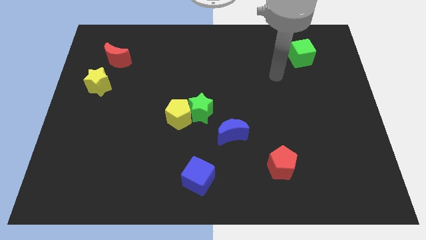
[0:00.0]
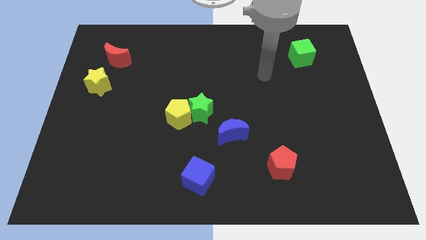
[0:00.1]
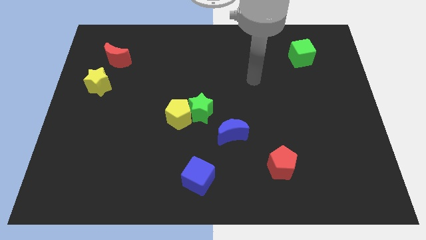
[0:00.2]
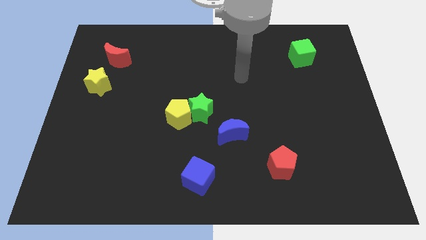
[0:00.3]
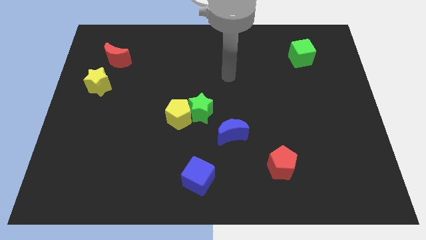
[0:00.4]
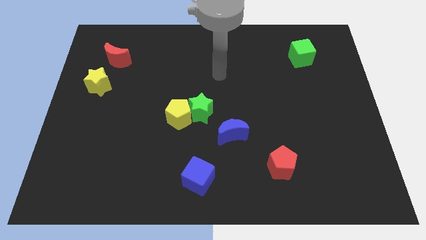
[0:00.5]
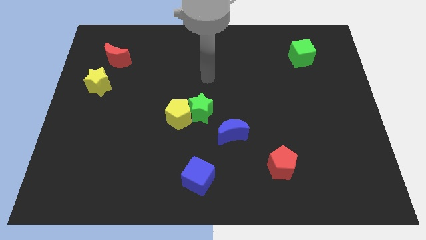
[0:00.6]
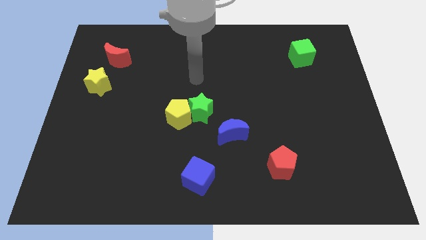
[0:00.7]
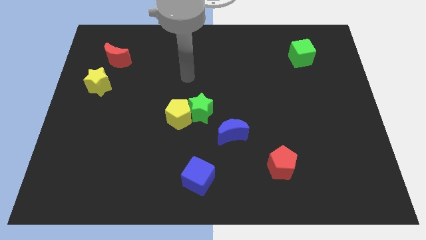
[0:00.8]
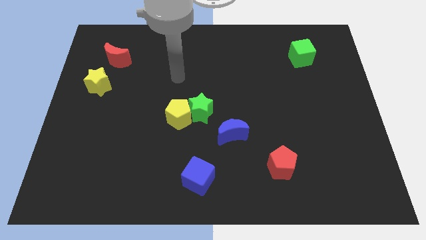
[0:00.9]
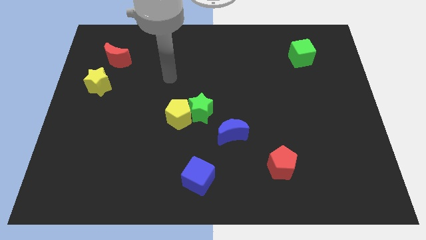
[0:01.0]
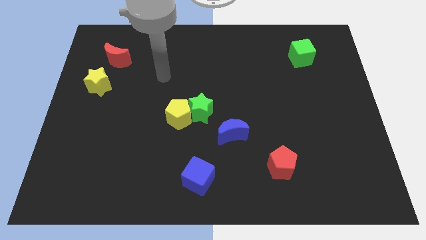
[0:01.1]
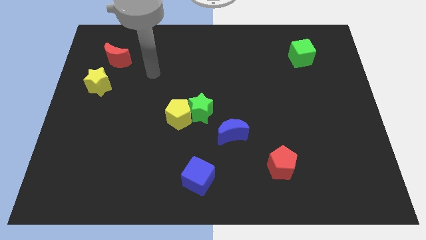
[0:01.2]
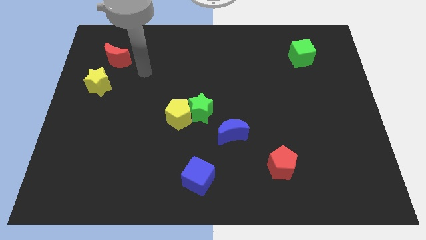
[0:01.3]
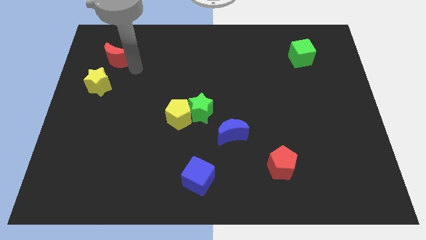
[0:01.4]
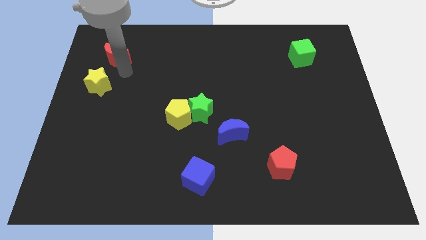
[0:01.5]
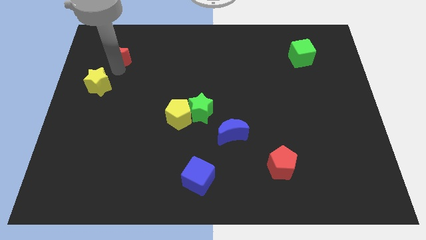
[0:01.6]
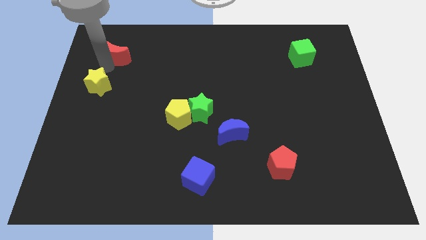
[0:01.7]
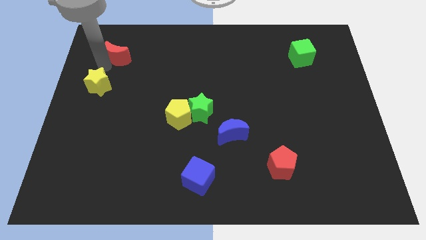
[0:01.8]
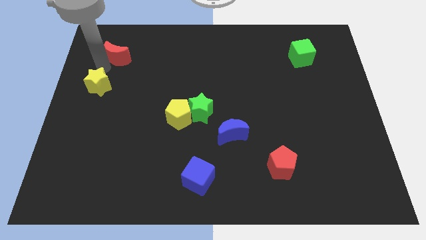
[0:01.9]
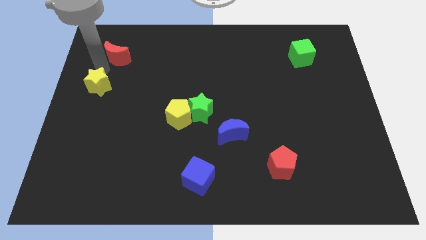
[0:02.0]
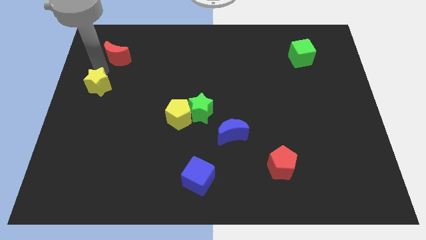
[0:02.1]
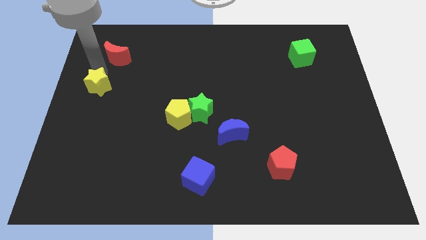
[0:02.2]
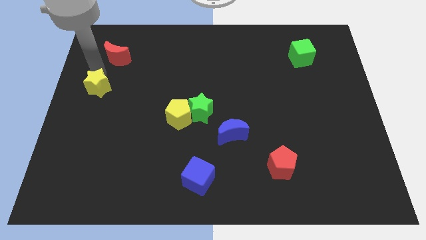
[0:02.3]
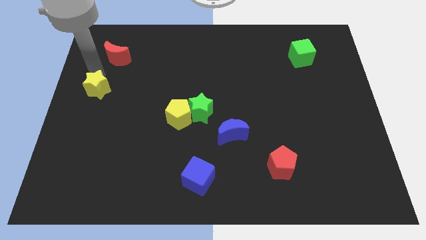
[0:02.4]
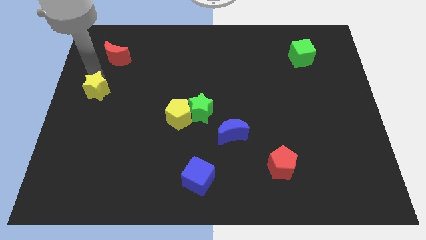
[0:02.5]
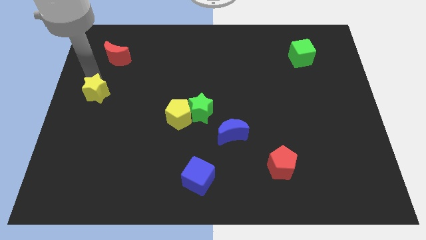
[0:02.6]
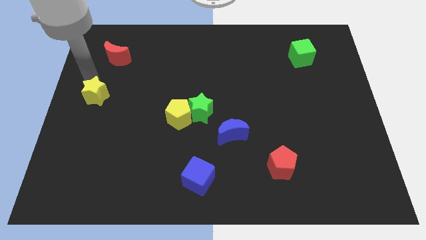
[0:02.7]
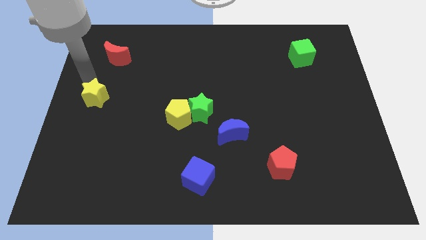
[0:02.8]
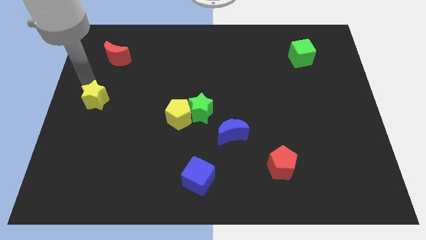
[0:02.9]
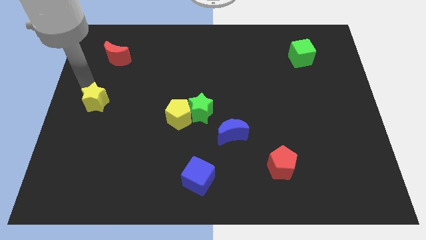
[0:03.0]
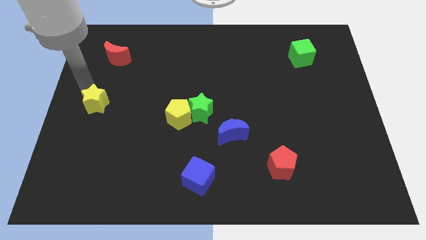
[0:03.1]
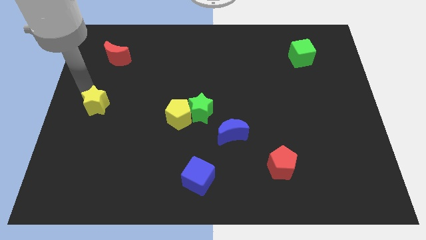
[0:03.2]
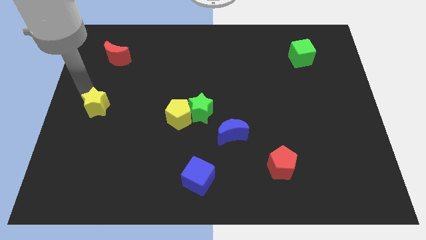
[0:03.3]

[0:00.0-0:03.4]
move the yellow star a bit downwards

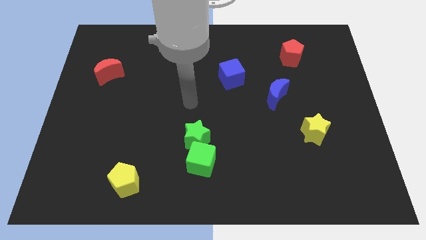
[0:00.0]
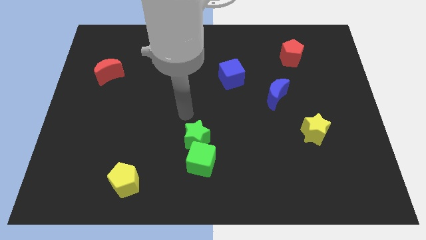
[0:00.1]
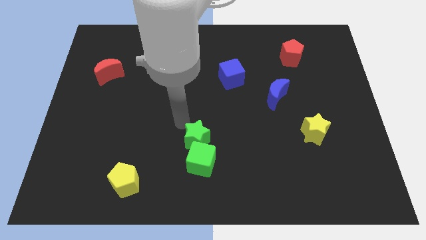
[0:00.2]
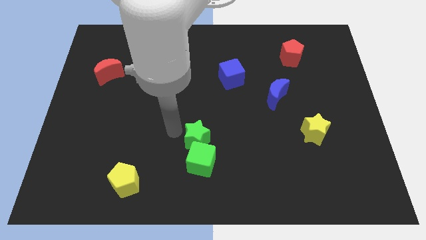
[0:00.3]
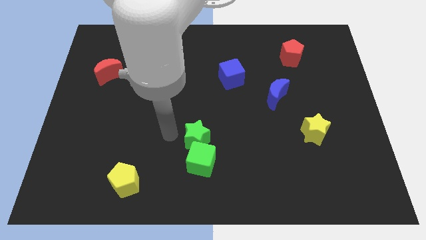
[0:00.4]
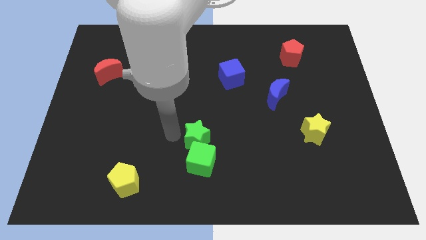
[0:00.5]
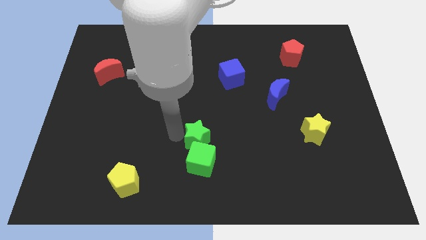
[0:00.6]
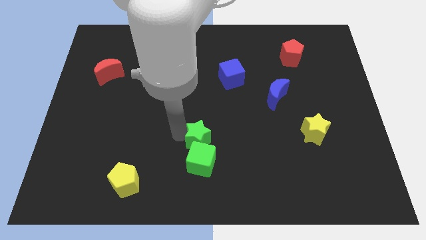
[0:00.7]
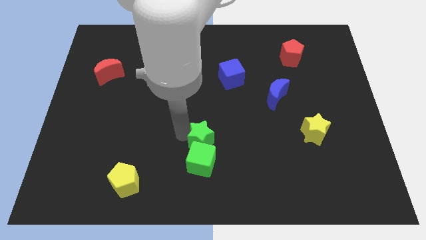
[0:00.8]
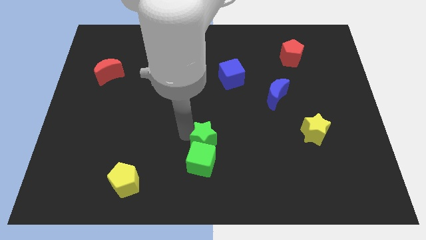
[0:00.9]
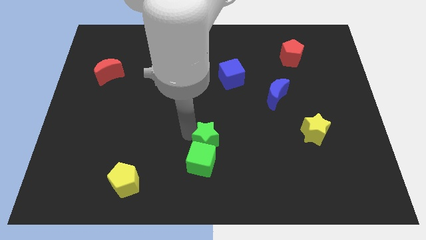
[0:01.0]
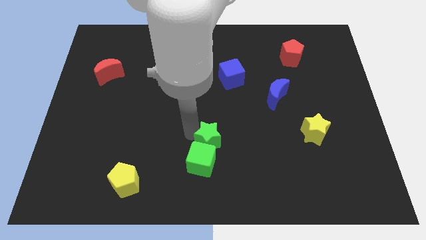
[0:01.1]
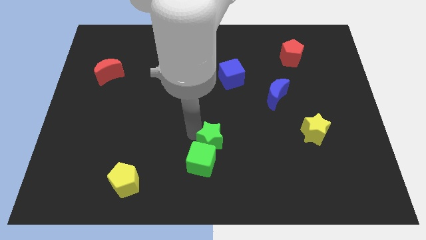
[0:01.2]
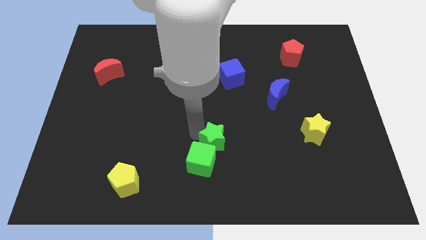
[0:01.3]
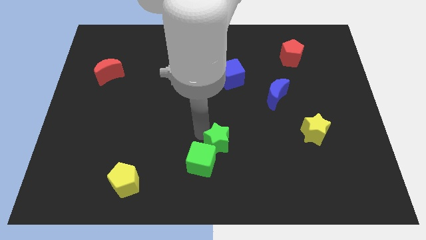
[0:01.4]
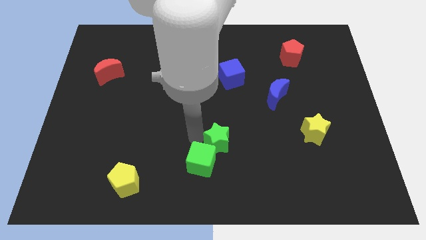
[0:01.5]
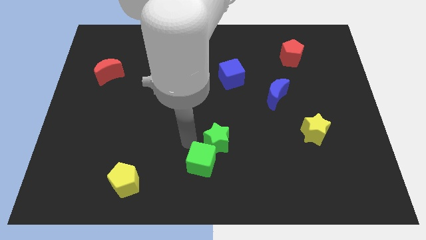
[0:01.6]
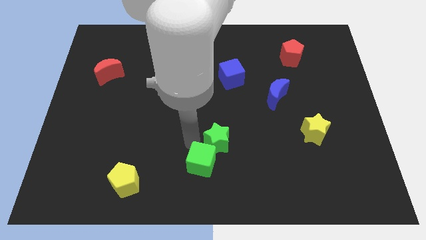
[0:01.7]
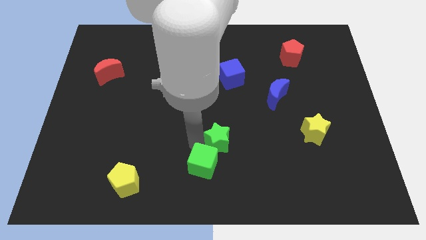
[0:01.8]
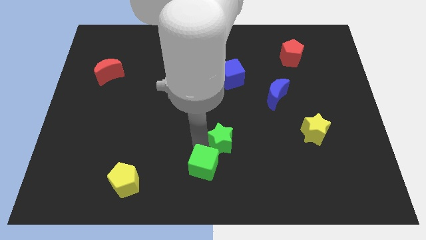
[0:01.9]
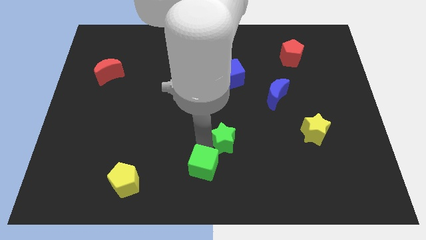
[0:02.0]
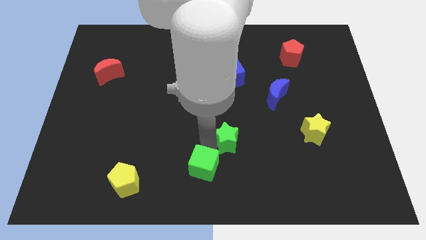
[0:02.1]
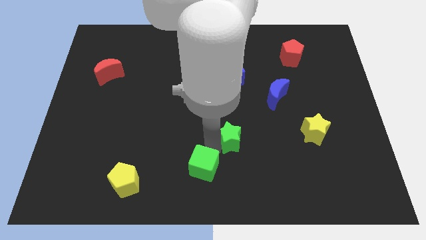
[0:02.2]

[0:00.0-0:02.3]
slightly push the green star right

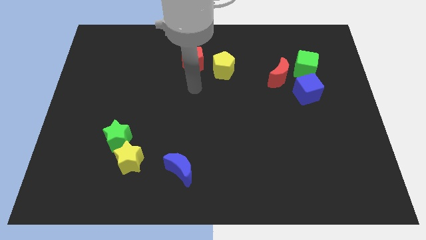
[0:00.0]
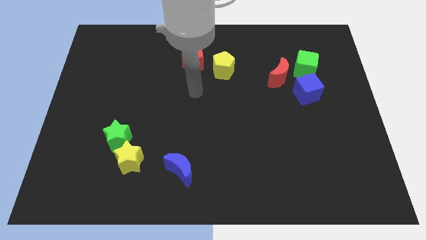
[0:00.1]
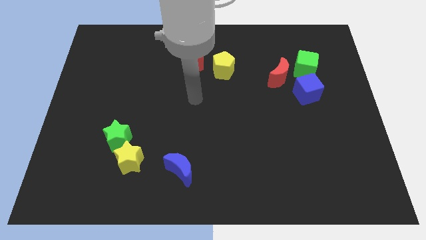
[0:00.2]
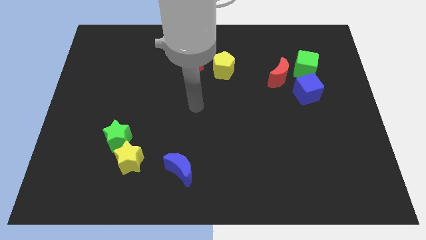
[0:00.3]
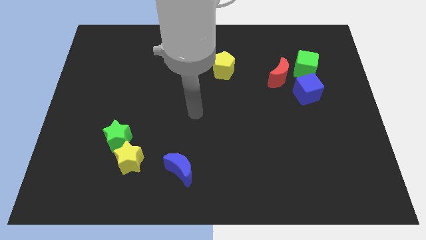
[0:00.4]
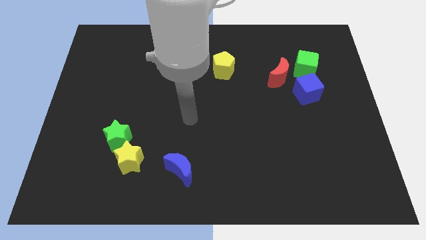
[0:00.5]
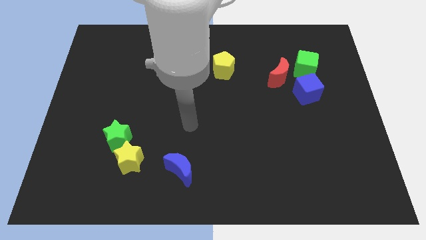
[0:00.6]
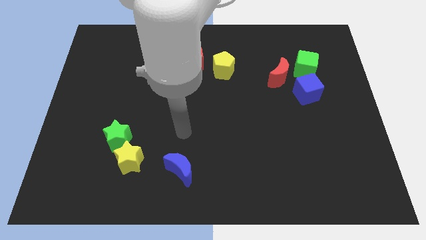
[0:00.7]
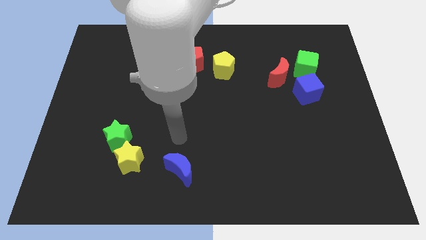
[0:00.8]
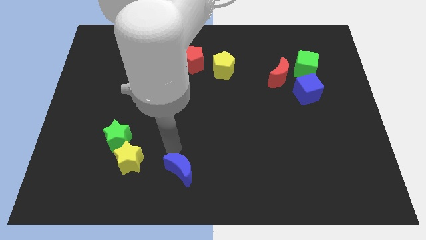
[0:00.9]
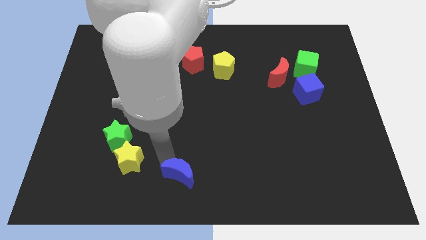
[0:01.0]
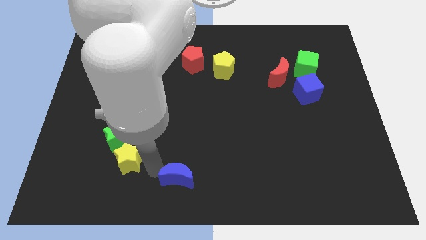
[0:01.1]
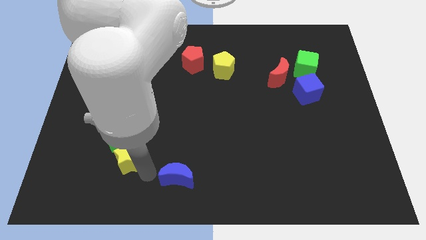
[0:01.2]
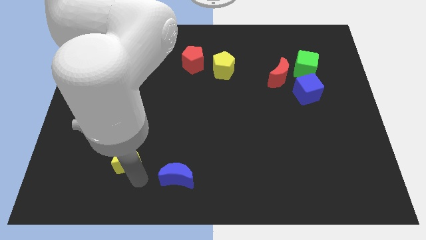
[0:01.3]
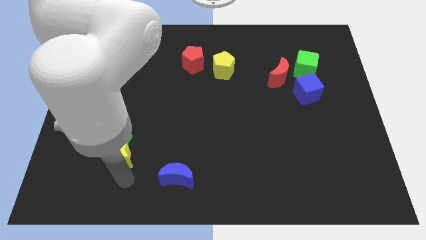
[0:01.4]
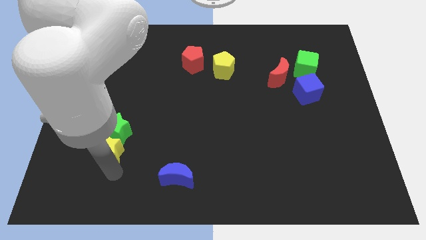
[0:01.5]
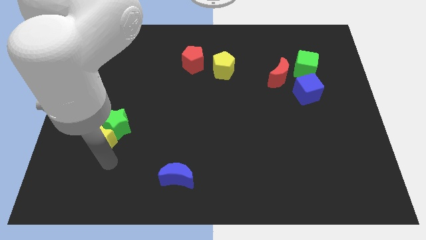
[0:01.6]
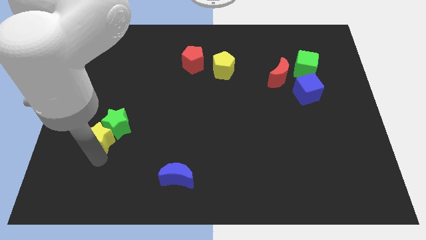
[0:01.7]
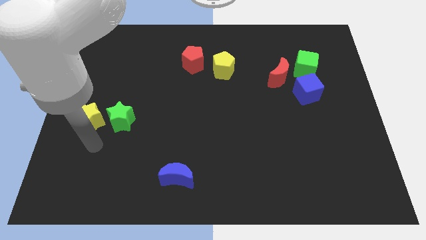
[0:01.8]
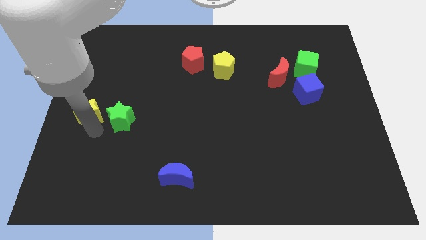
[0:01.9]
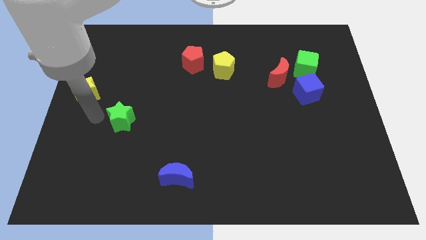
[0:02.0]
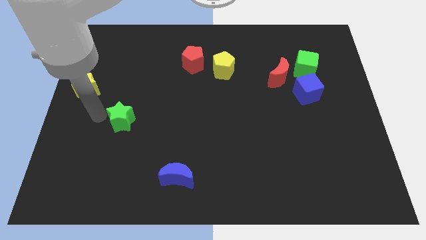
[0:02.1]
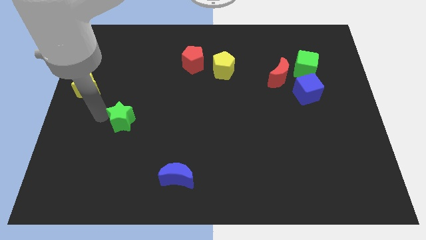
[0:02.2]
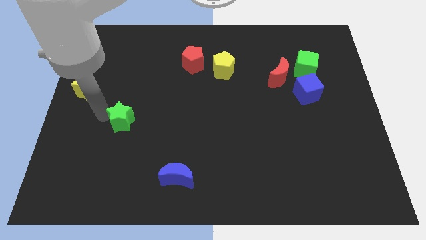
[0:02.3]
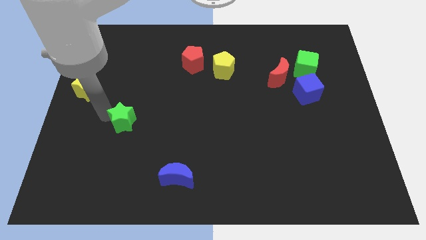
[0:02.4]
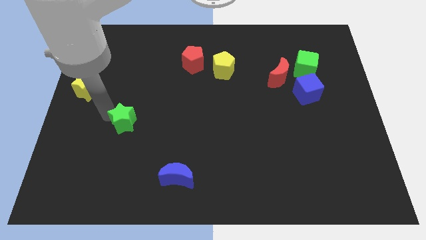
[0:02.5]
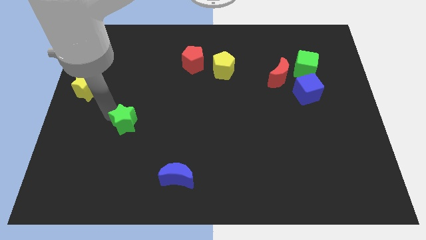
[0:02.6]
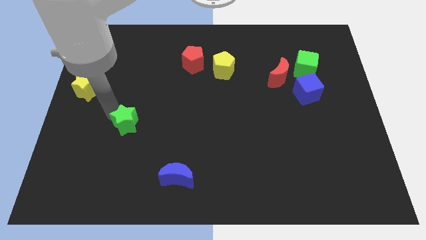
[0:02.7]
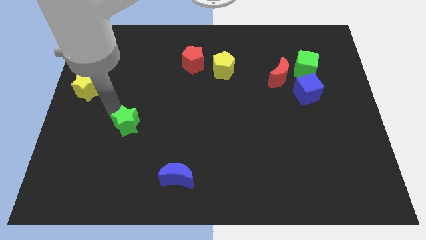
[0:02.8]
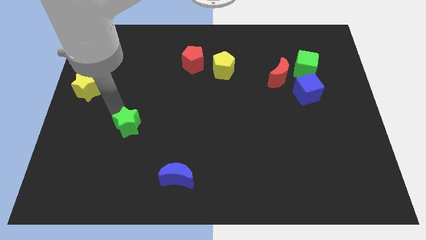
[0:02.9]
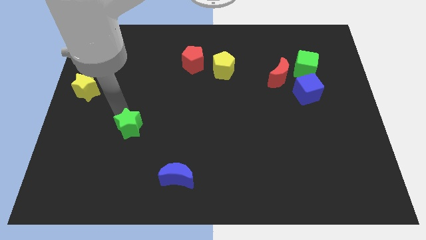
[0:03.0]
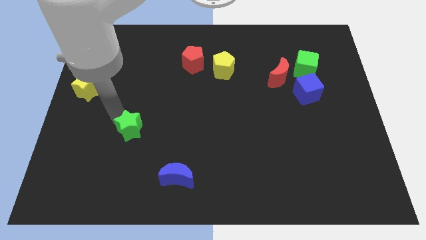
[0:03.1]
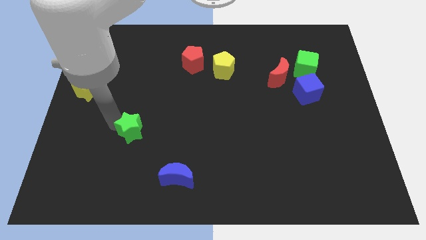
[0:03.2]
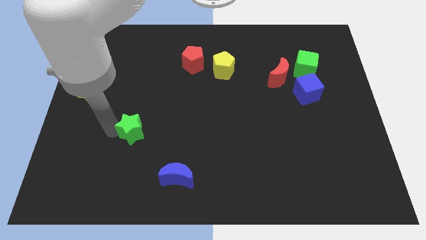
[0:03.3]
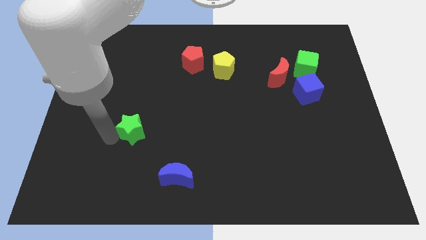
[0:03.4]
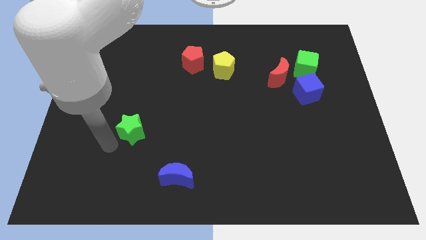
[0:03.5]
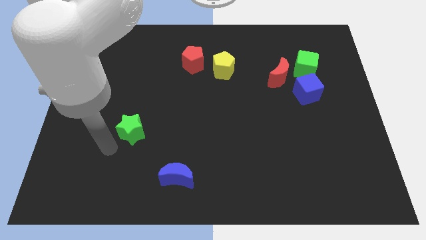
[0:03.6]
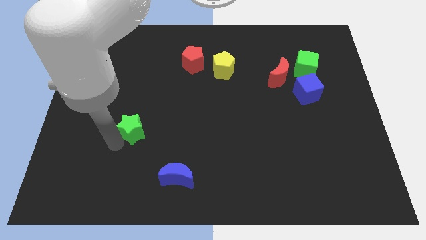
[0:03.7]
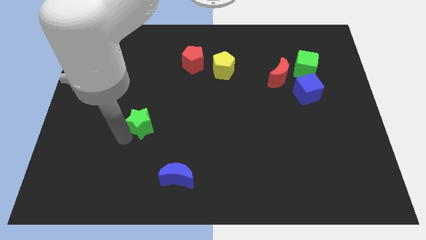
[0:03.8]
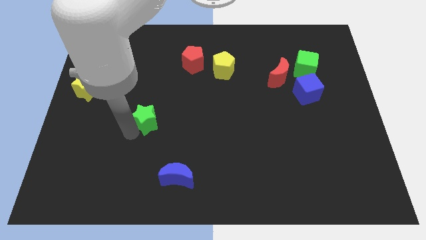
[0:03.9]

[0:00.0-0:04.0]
move the green star slightly diagonally up and right
